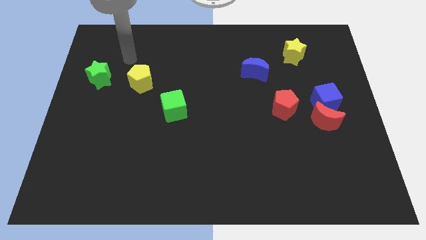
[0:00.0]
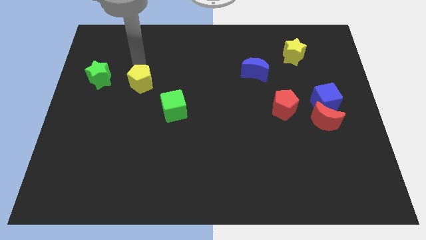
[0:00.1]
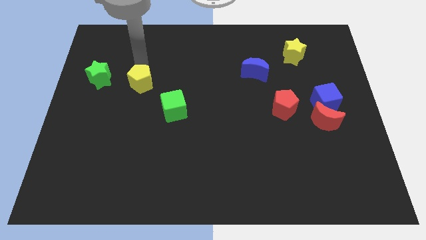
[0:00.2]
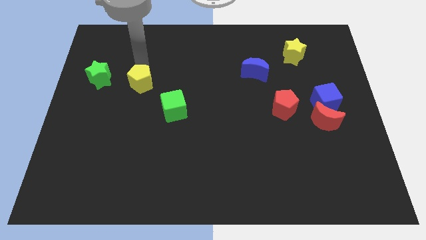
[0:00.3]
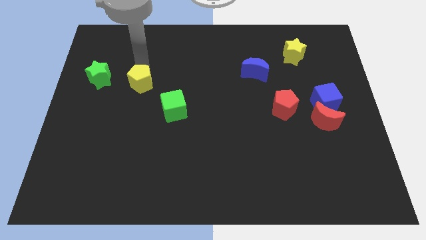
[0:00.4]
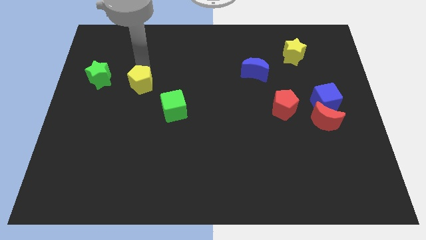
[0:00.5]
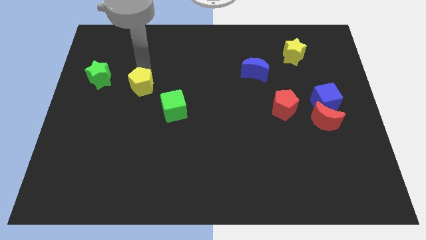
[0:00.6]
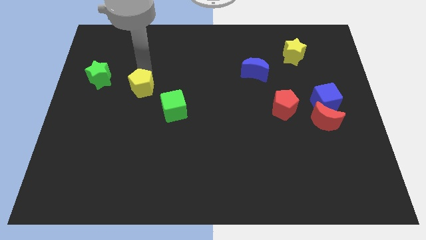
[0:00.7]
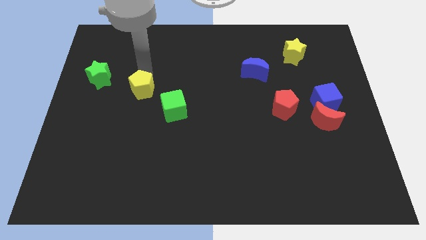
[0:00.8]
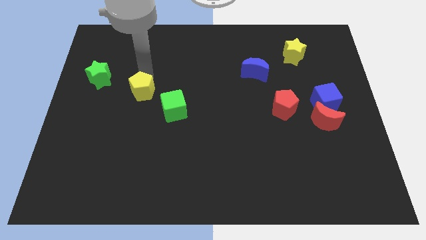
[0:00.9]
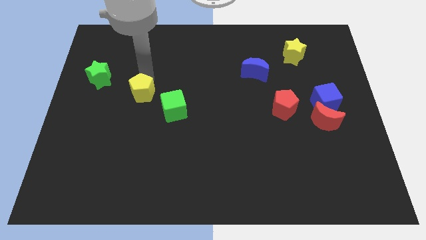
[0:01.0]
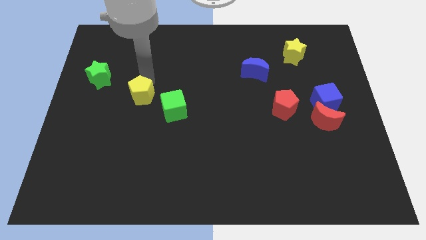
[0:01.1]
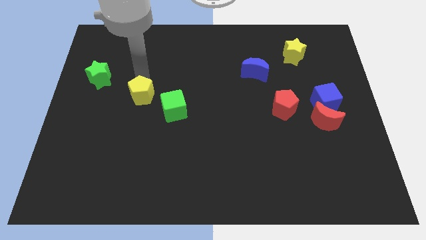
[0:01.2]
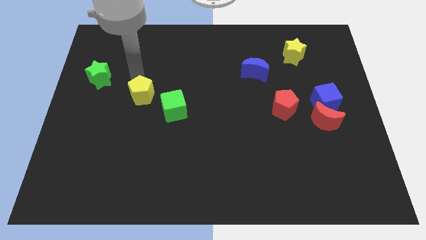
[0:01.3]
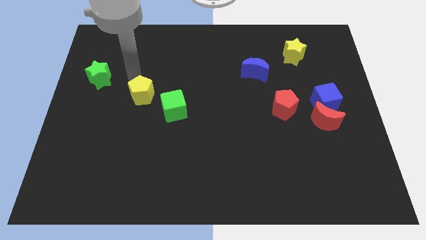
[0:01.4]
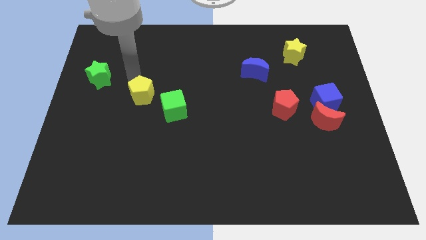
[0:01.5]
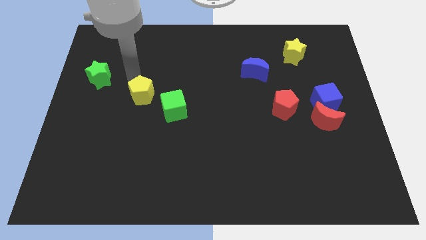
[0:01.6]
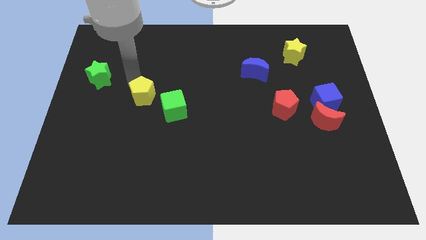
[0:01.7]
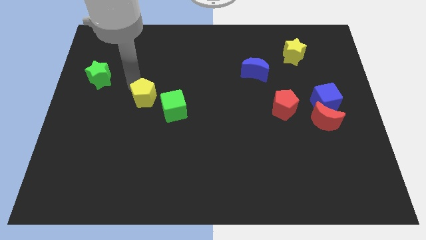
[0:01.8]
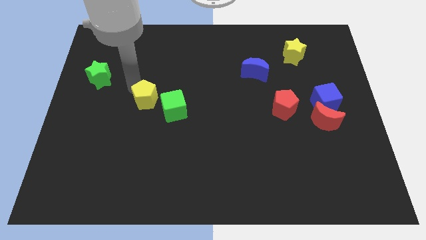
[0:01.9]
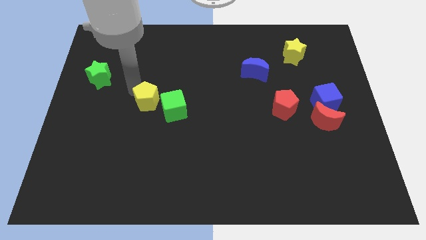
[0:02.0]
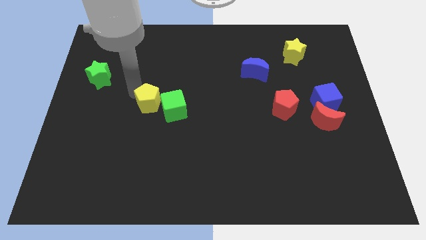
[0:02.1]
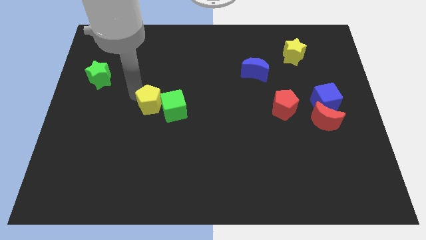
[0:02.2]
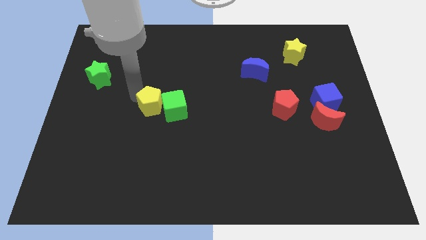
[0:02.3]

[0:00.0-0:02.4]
push the yellow pentagon a little bit down and right

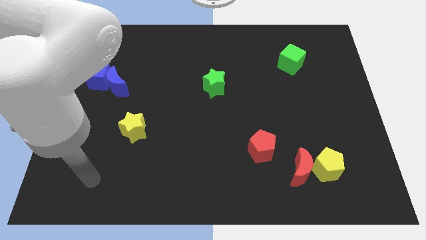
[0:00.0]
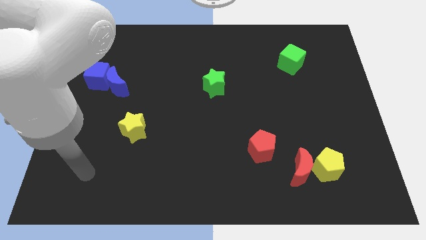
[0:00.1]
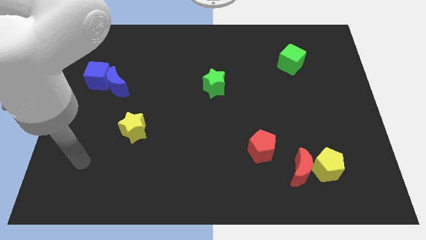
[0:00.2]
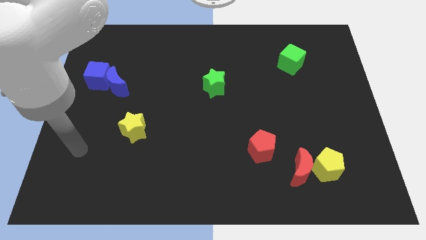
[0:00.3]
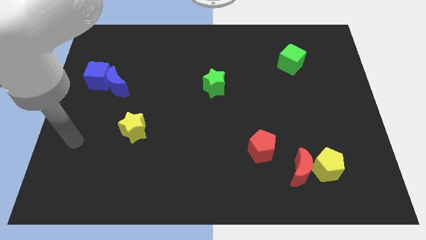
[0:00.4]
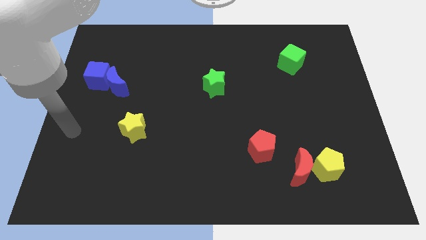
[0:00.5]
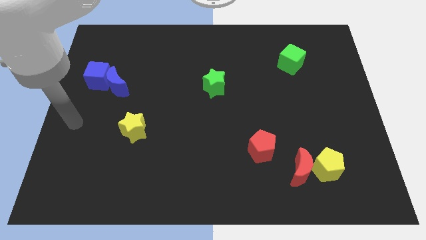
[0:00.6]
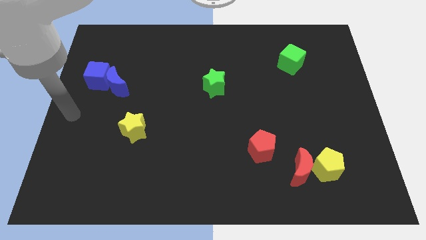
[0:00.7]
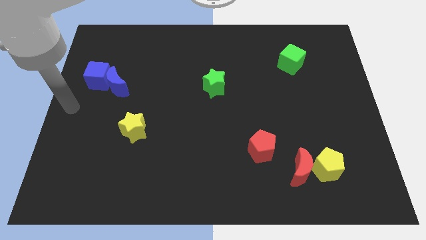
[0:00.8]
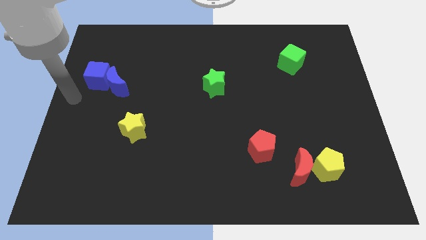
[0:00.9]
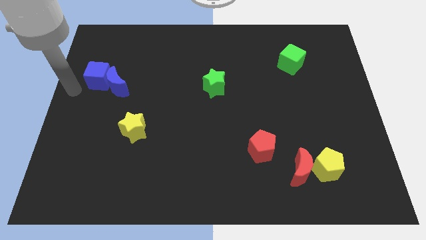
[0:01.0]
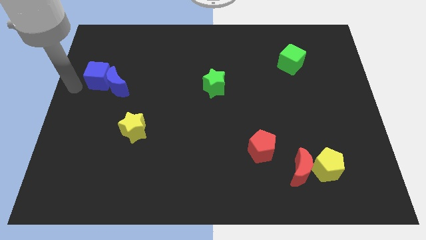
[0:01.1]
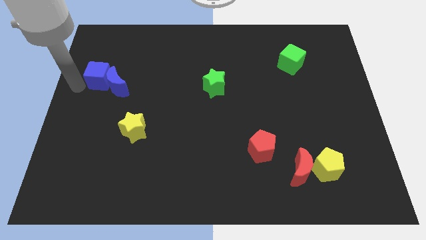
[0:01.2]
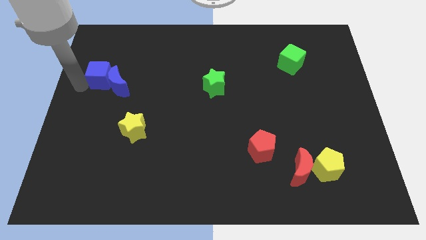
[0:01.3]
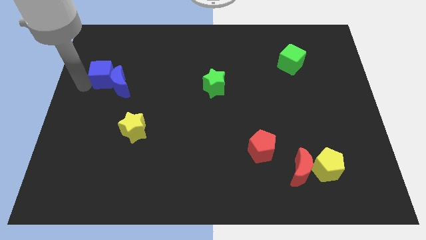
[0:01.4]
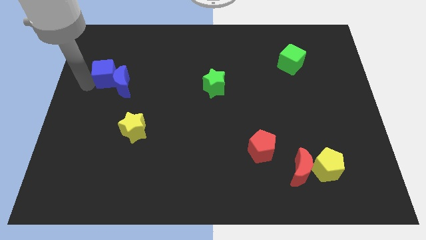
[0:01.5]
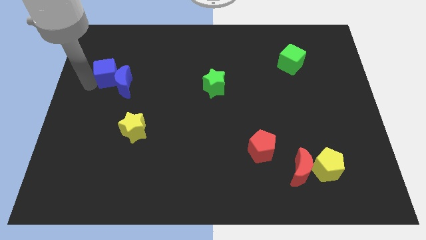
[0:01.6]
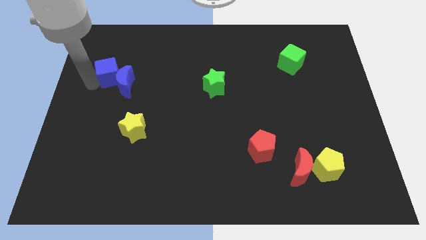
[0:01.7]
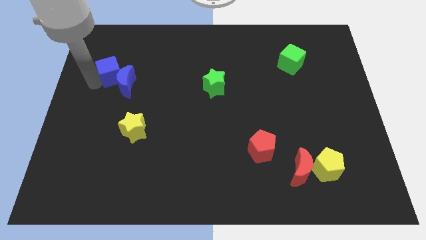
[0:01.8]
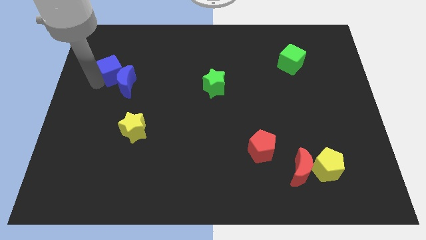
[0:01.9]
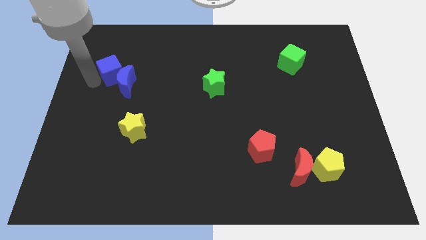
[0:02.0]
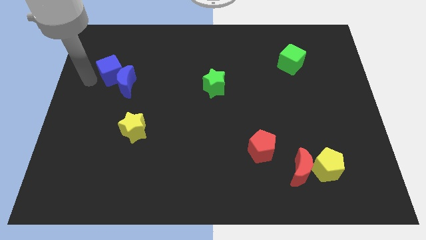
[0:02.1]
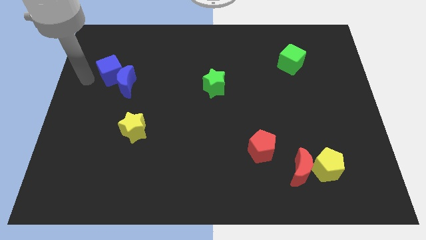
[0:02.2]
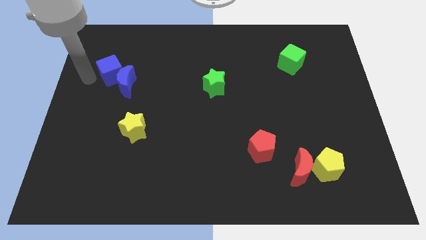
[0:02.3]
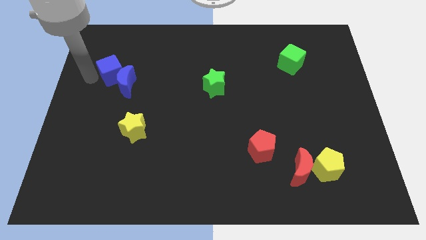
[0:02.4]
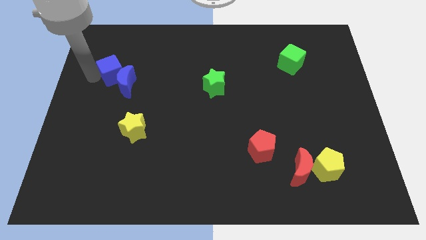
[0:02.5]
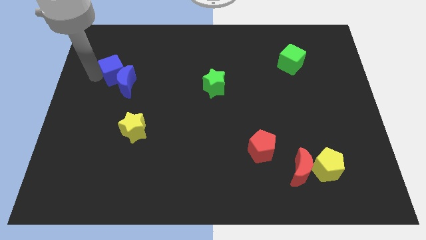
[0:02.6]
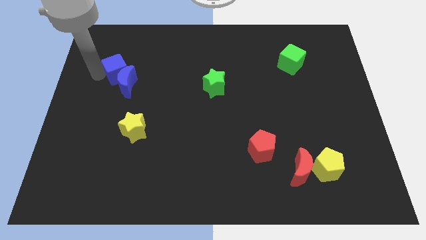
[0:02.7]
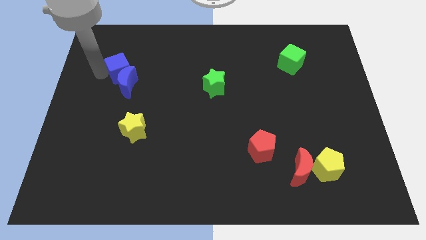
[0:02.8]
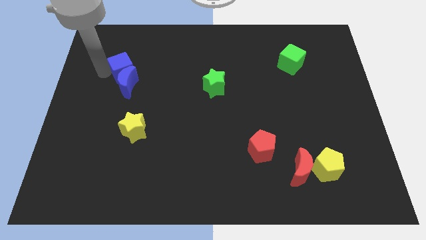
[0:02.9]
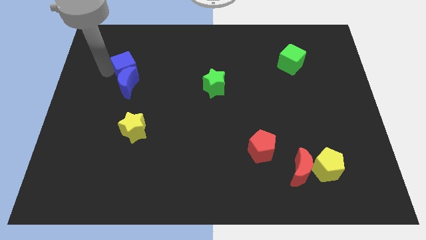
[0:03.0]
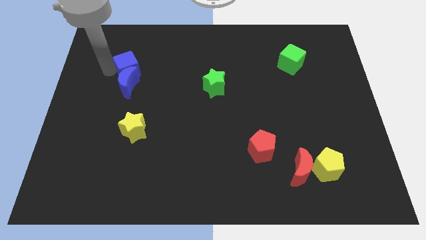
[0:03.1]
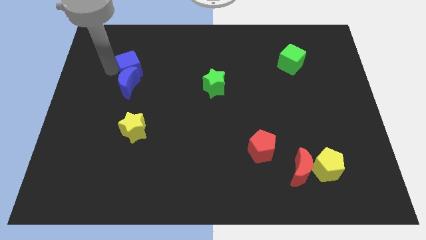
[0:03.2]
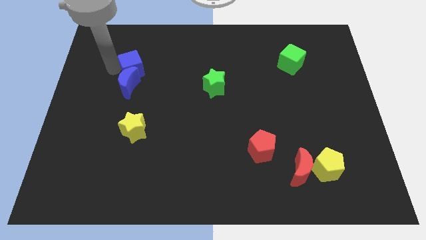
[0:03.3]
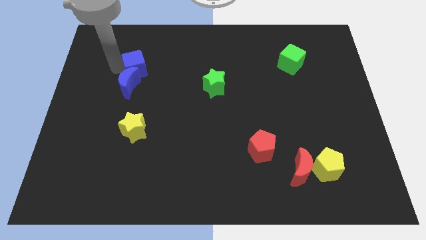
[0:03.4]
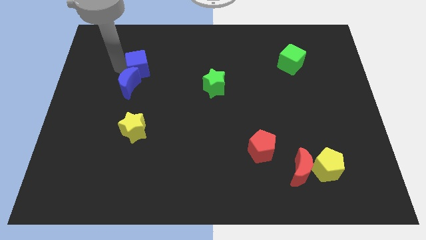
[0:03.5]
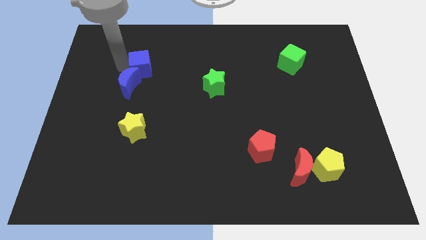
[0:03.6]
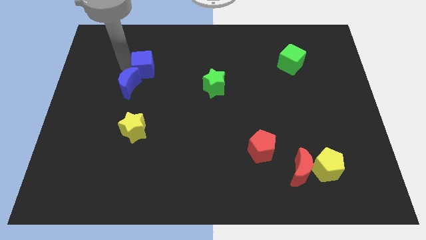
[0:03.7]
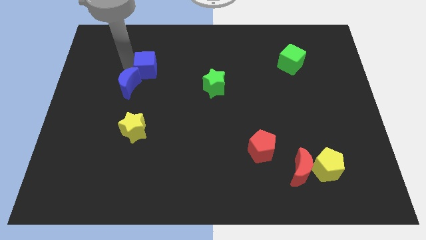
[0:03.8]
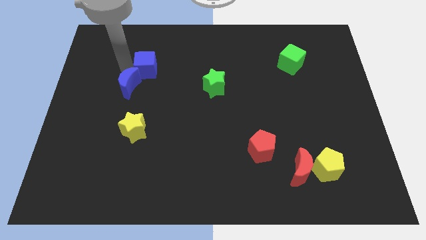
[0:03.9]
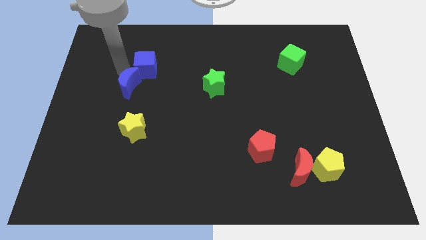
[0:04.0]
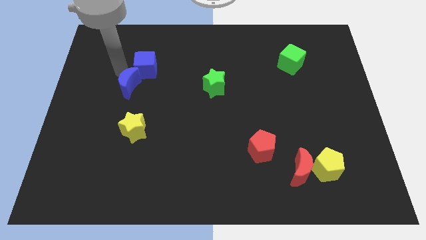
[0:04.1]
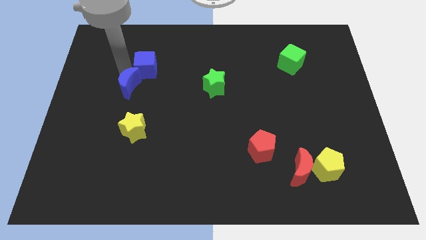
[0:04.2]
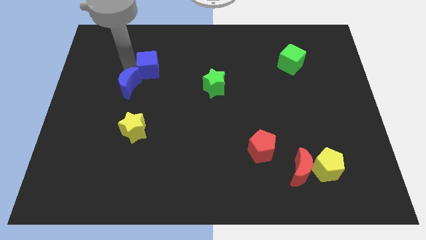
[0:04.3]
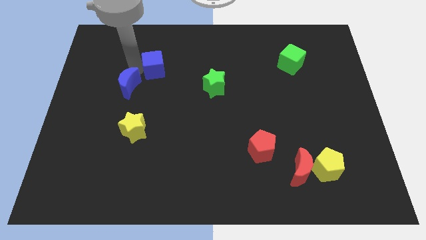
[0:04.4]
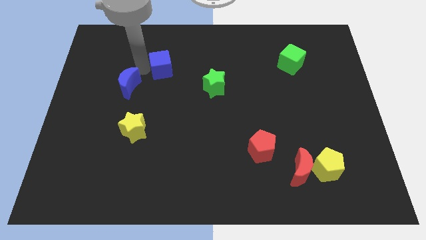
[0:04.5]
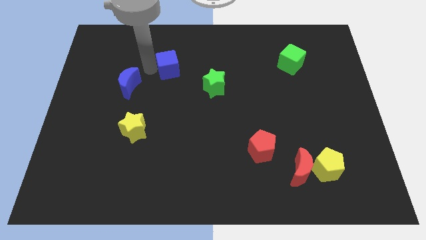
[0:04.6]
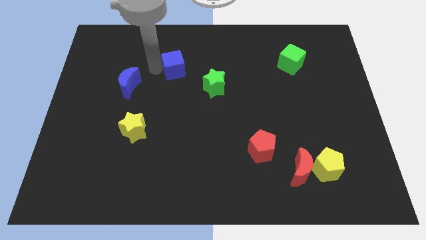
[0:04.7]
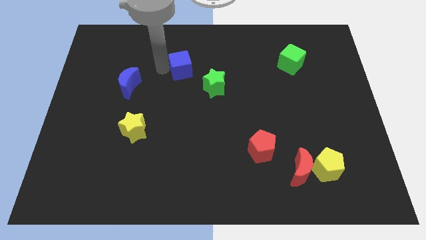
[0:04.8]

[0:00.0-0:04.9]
move the blue cube to the right

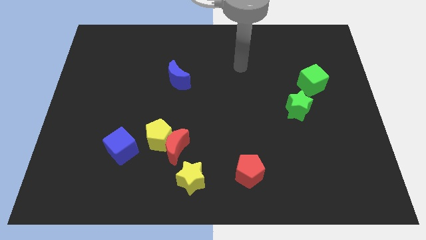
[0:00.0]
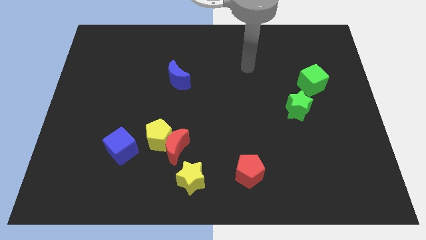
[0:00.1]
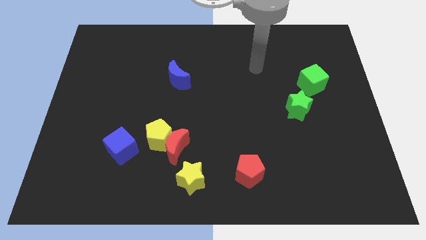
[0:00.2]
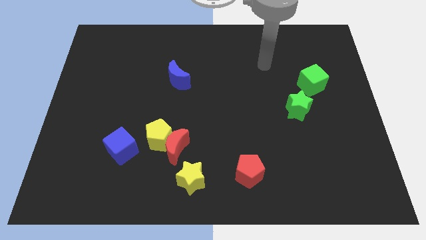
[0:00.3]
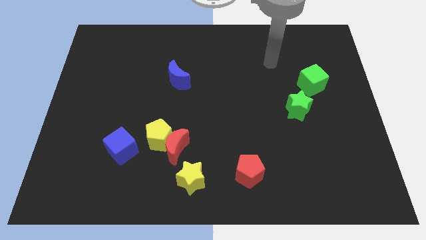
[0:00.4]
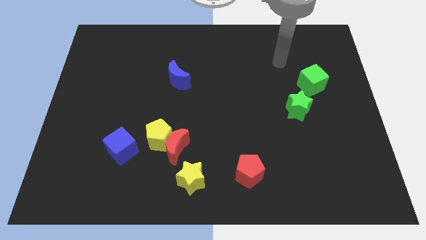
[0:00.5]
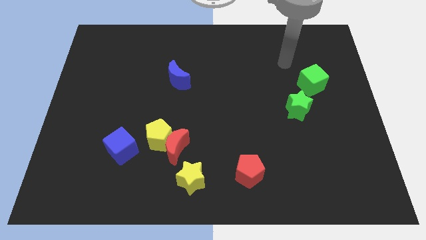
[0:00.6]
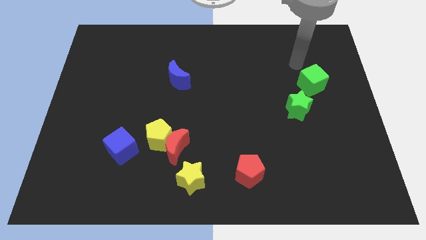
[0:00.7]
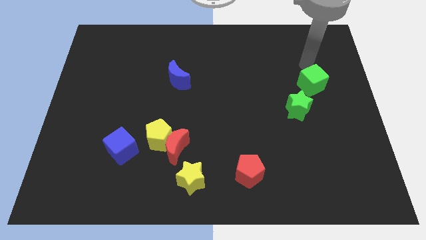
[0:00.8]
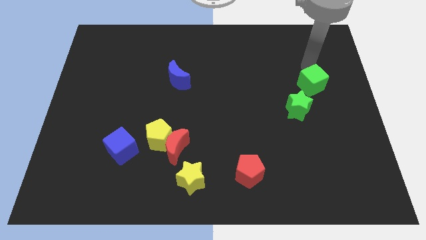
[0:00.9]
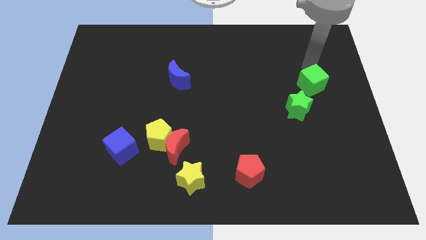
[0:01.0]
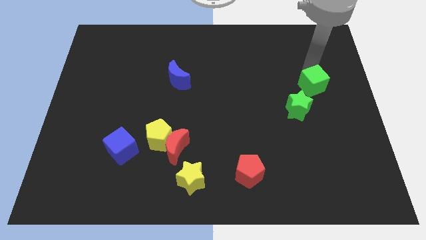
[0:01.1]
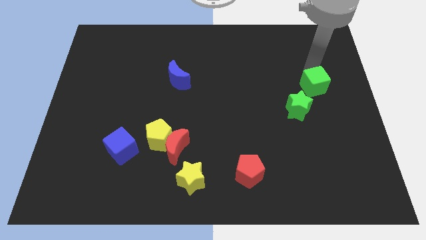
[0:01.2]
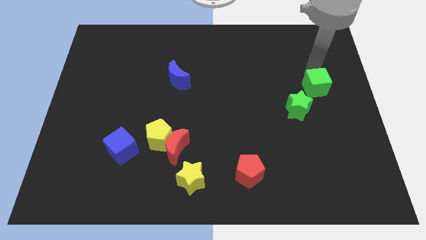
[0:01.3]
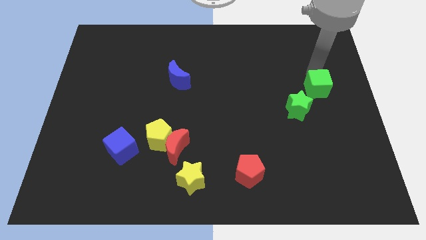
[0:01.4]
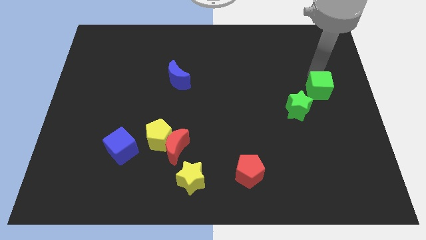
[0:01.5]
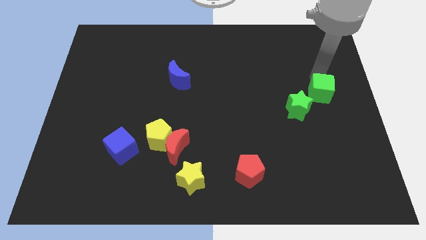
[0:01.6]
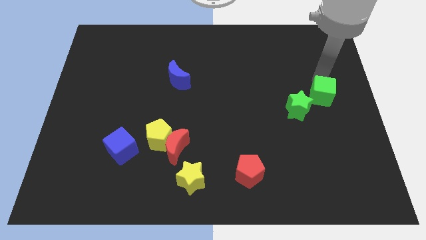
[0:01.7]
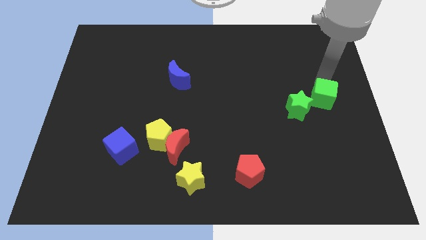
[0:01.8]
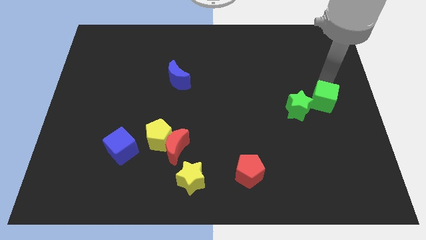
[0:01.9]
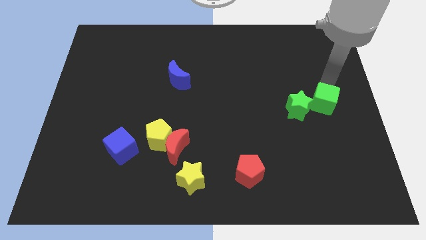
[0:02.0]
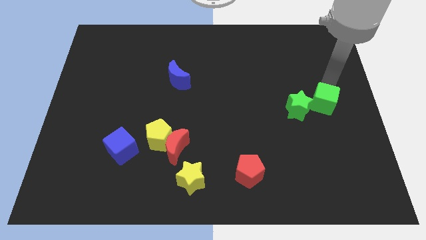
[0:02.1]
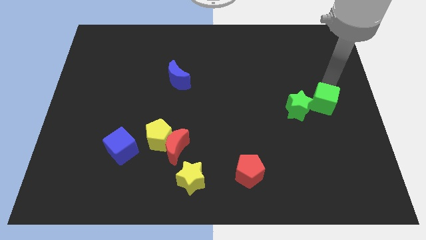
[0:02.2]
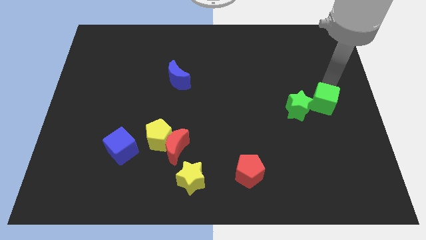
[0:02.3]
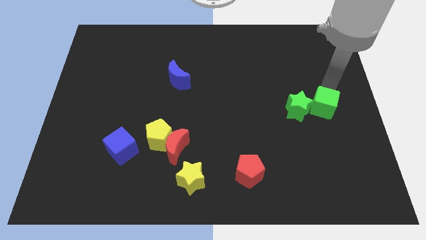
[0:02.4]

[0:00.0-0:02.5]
push the green cube slightly downwards
